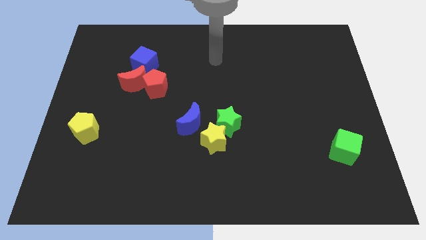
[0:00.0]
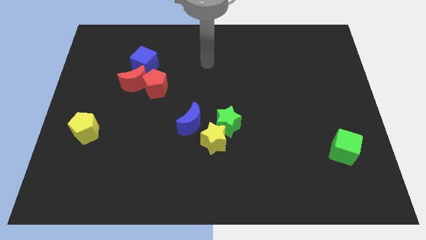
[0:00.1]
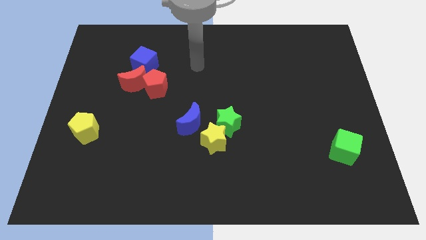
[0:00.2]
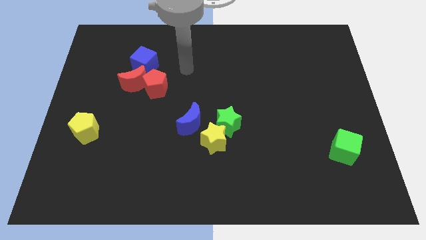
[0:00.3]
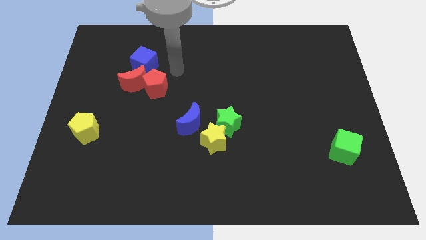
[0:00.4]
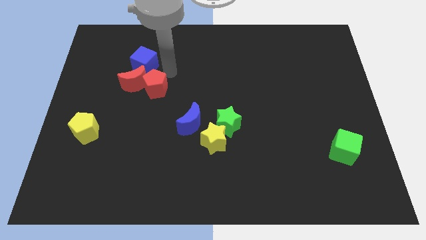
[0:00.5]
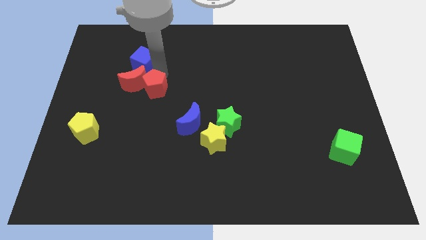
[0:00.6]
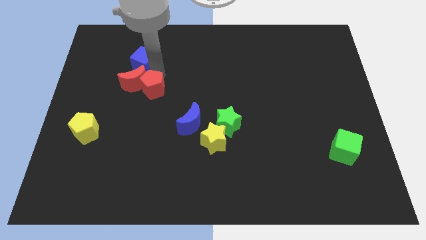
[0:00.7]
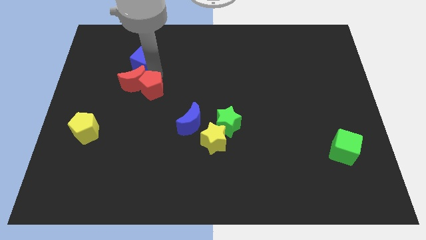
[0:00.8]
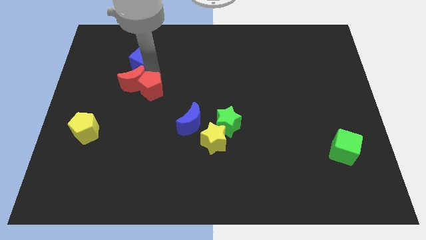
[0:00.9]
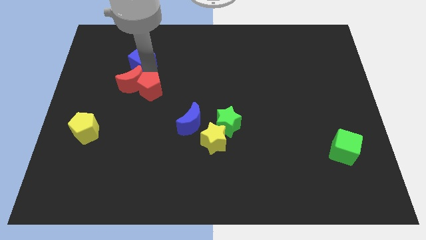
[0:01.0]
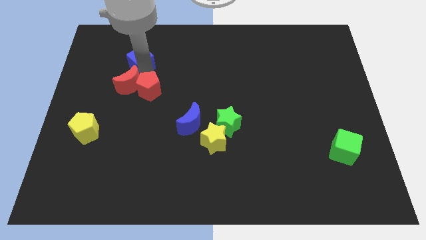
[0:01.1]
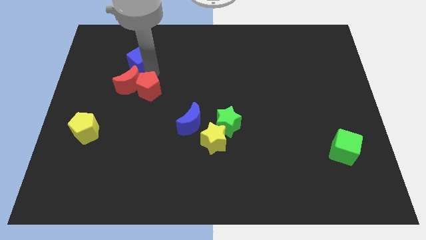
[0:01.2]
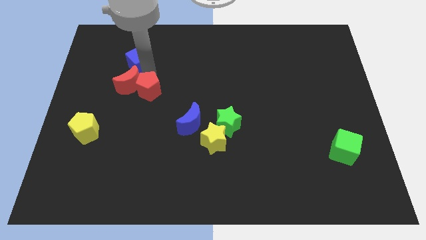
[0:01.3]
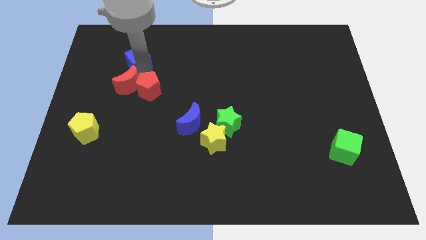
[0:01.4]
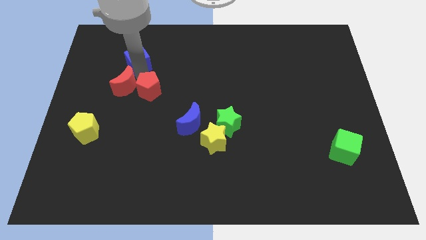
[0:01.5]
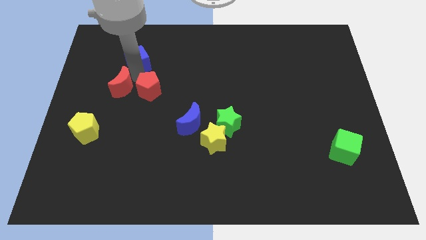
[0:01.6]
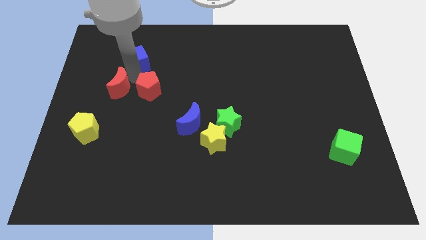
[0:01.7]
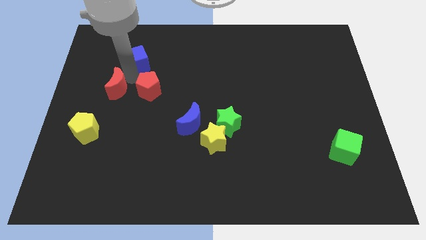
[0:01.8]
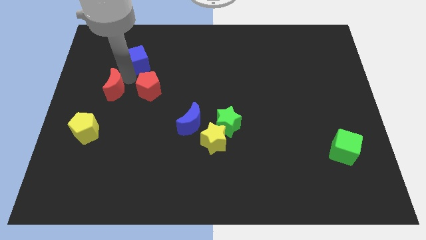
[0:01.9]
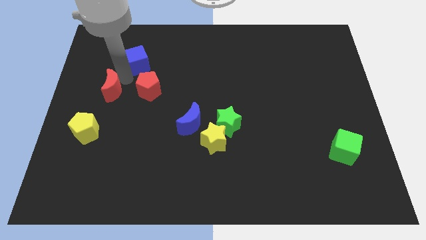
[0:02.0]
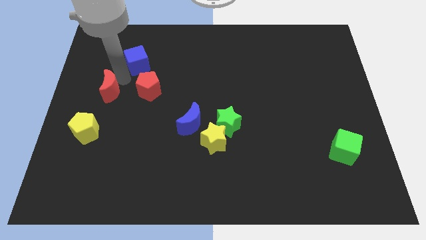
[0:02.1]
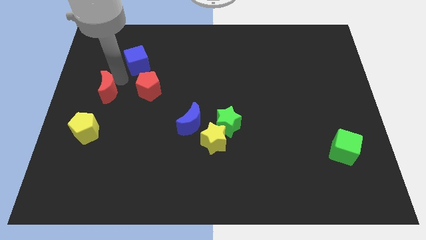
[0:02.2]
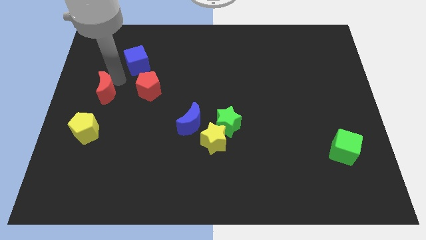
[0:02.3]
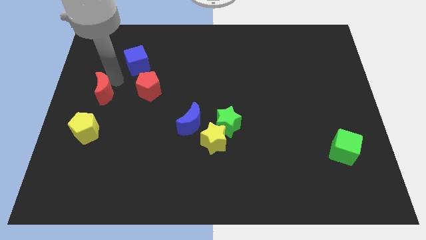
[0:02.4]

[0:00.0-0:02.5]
move the red moon away from the red pentagon and blue cube

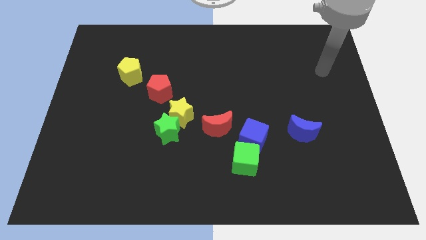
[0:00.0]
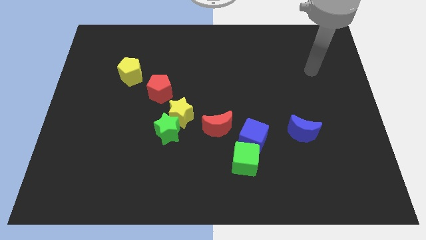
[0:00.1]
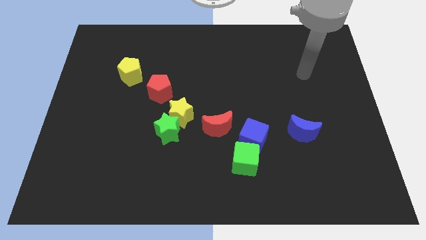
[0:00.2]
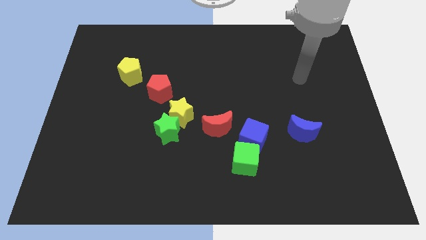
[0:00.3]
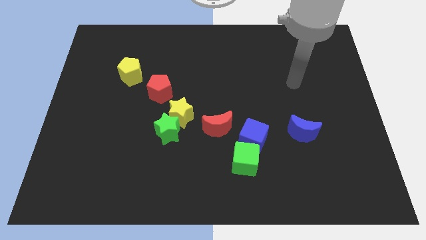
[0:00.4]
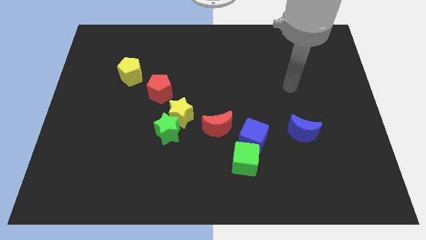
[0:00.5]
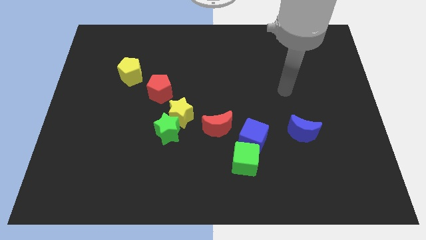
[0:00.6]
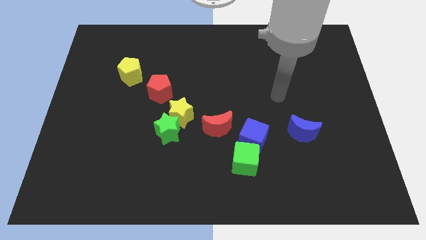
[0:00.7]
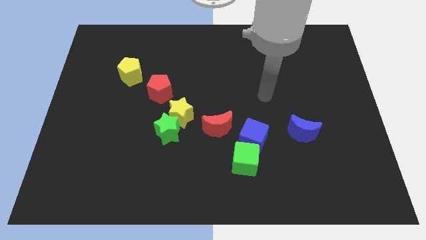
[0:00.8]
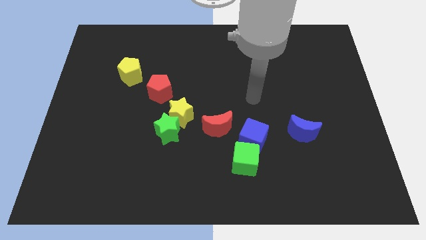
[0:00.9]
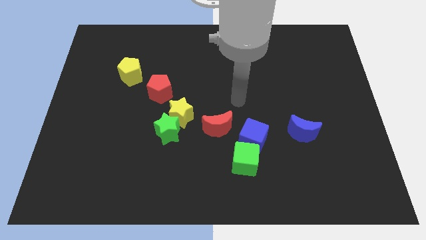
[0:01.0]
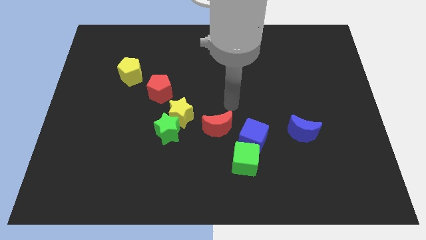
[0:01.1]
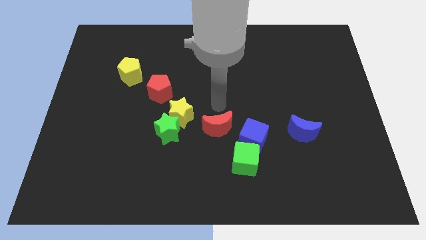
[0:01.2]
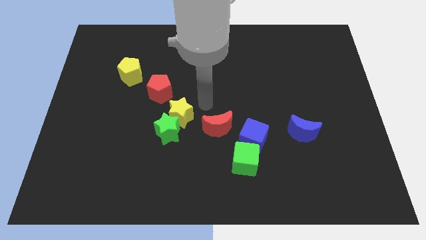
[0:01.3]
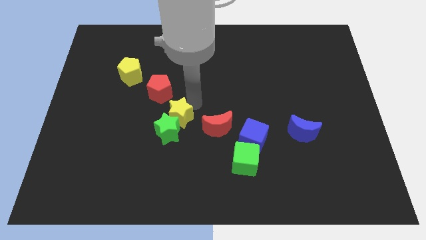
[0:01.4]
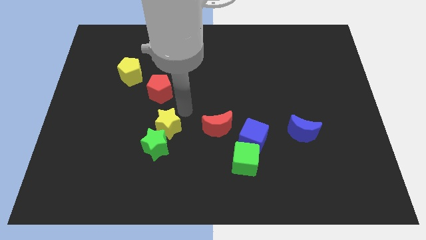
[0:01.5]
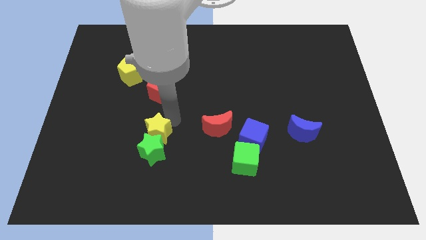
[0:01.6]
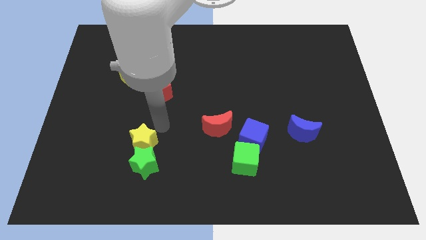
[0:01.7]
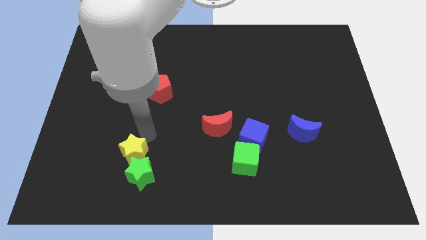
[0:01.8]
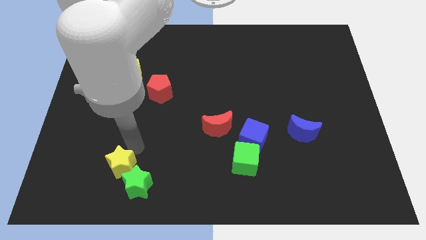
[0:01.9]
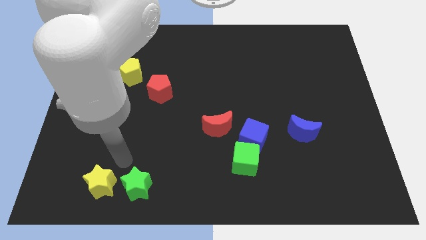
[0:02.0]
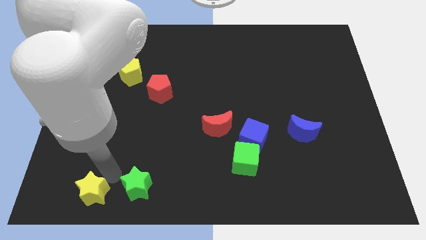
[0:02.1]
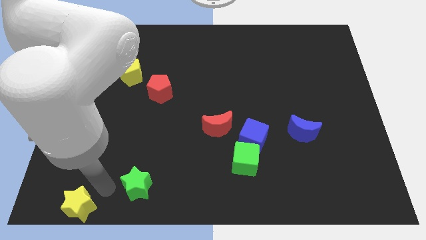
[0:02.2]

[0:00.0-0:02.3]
pull the green star apart from the yellow star

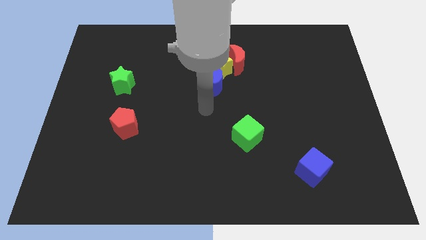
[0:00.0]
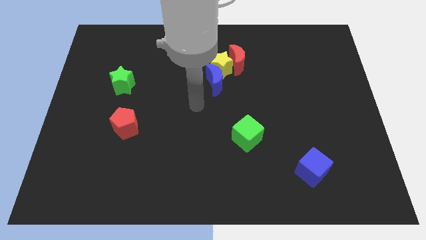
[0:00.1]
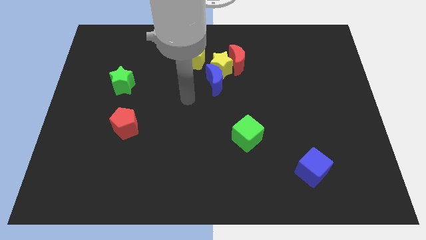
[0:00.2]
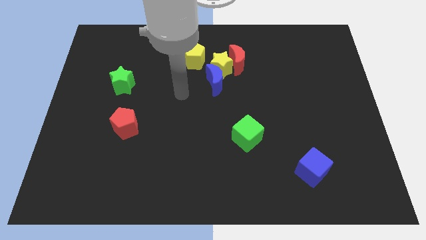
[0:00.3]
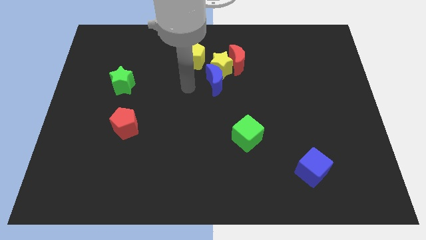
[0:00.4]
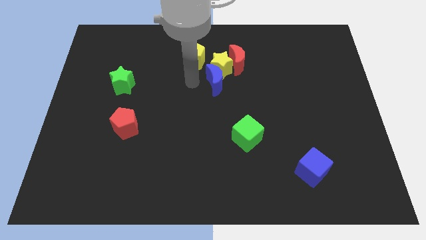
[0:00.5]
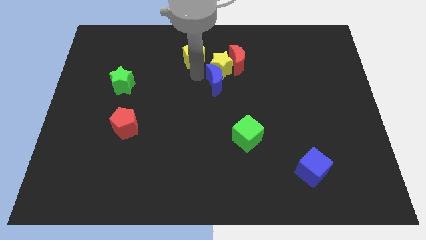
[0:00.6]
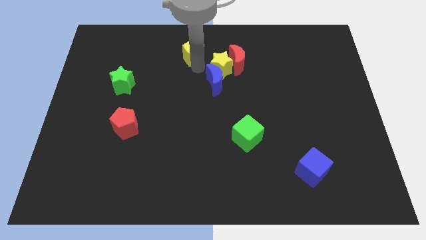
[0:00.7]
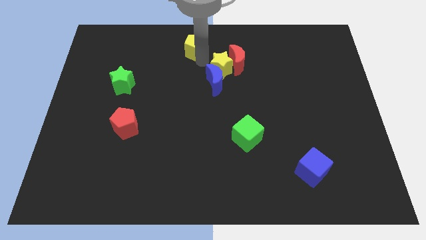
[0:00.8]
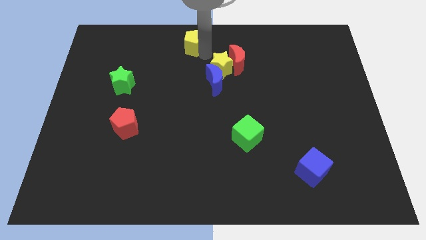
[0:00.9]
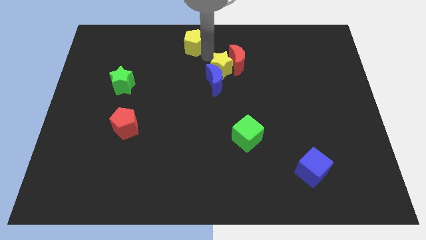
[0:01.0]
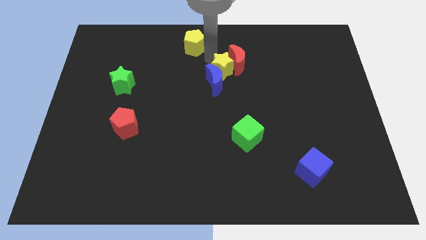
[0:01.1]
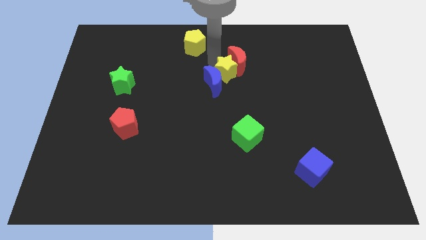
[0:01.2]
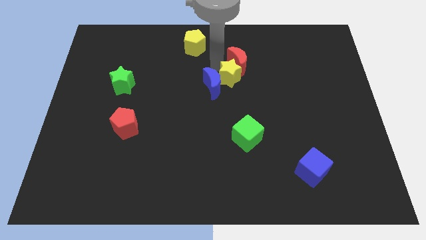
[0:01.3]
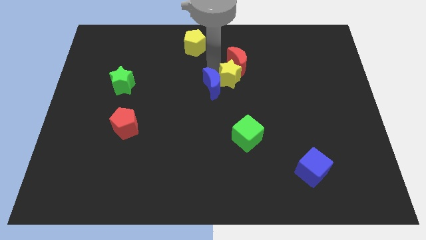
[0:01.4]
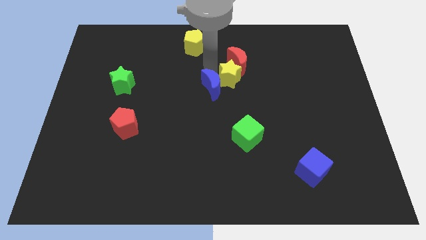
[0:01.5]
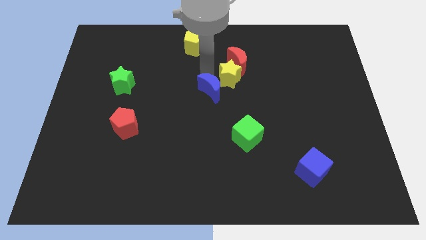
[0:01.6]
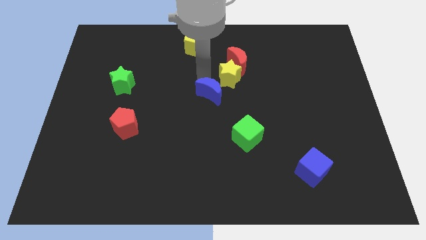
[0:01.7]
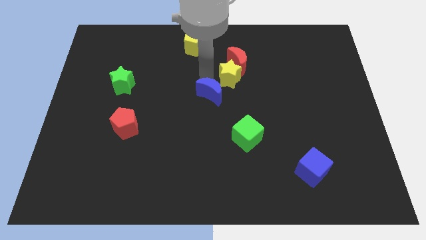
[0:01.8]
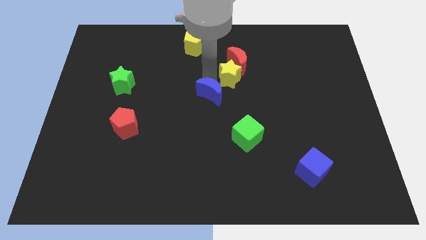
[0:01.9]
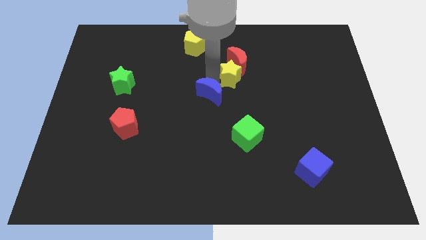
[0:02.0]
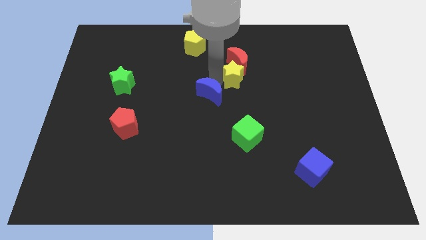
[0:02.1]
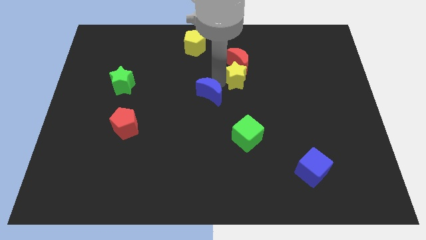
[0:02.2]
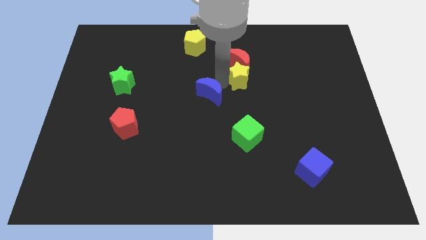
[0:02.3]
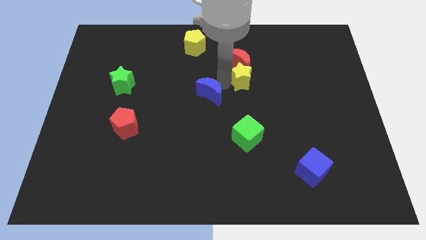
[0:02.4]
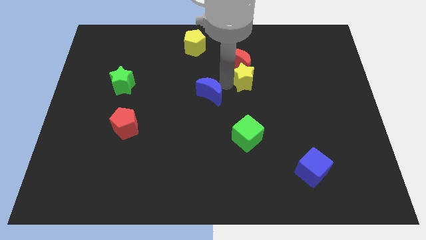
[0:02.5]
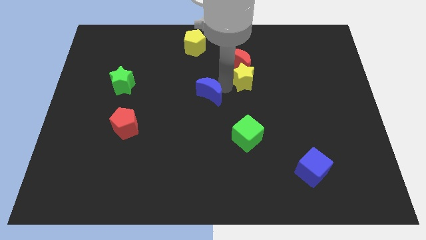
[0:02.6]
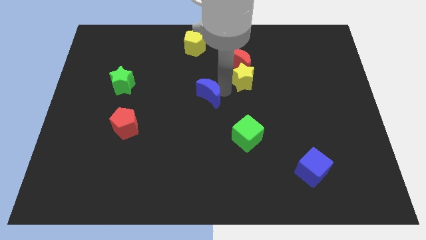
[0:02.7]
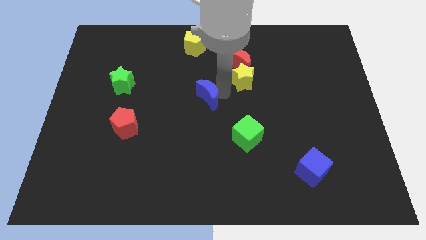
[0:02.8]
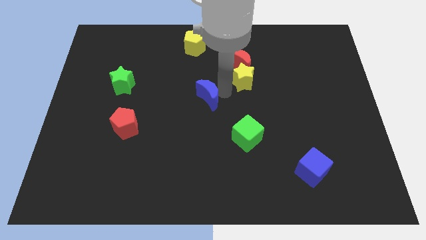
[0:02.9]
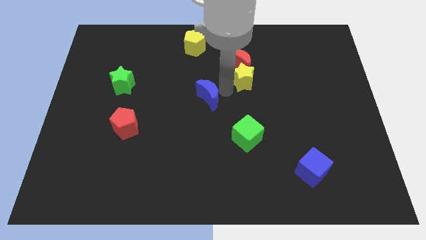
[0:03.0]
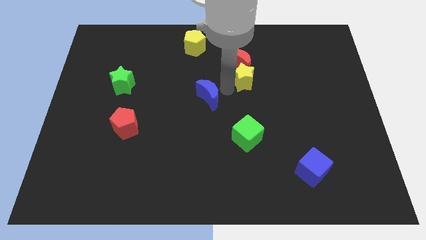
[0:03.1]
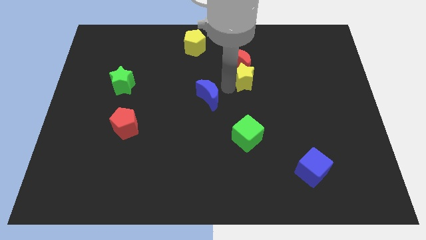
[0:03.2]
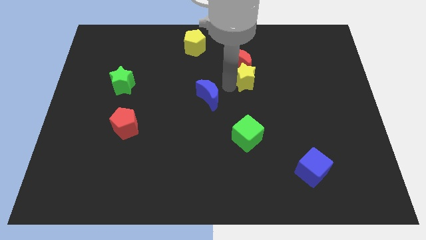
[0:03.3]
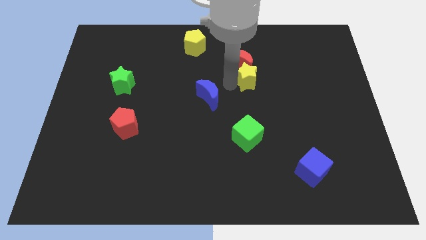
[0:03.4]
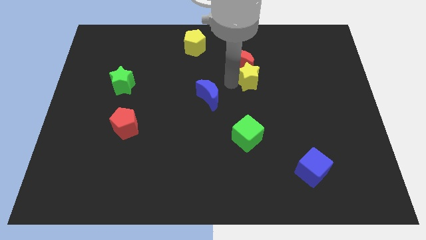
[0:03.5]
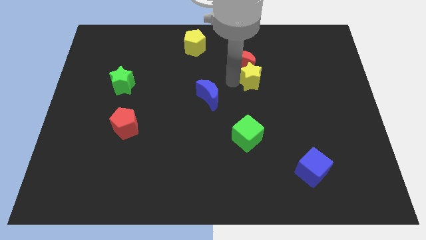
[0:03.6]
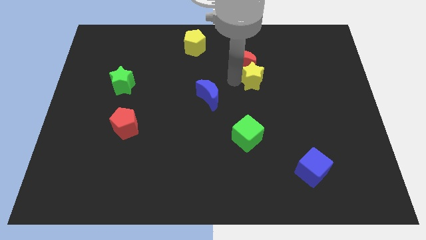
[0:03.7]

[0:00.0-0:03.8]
pull the yellow star apart from the clump

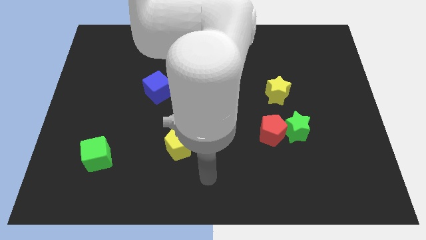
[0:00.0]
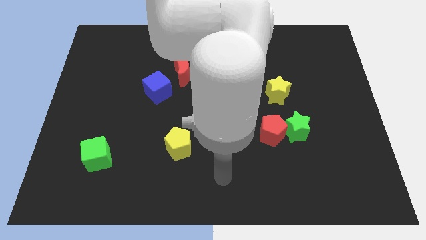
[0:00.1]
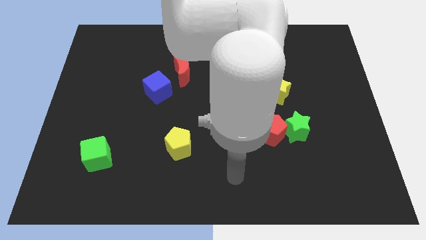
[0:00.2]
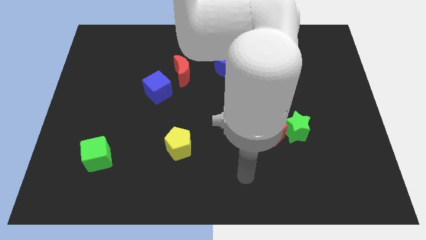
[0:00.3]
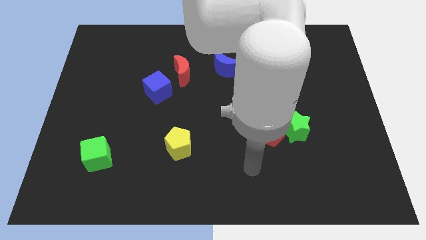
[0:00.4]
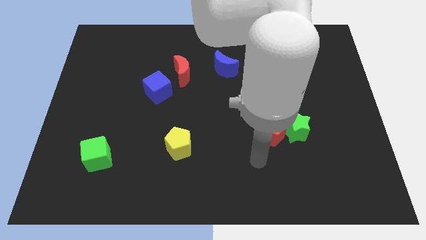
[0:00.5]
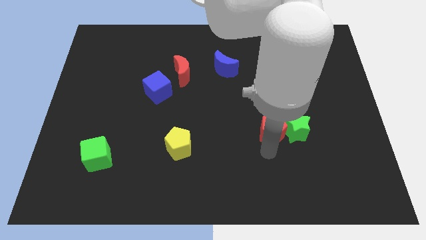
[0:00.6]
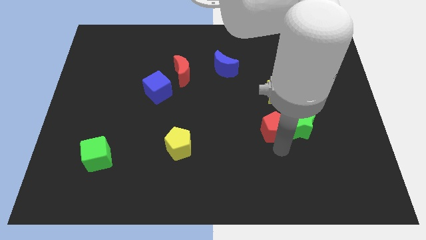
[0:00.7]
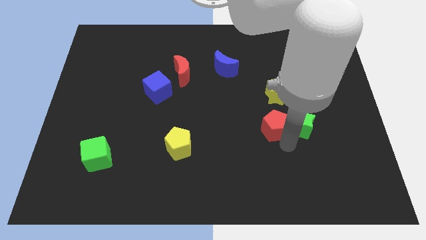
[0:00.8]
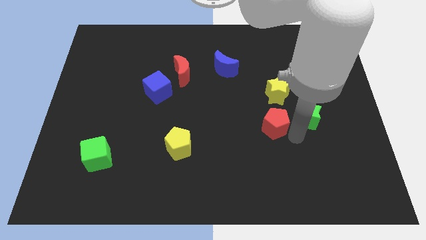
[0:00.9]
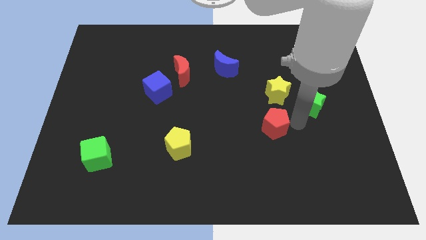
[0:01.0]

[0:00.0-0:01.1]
separate the red pentagon from the green star
